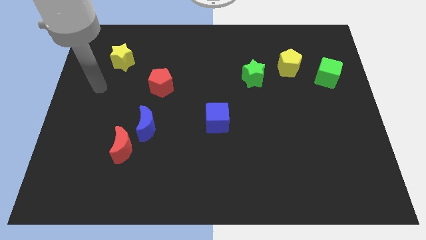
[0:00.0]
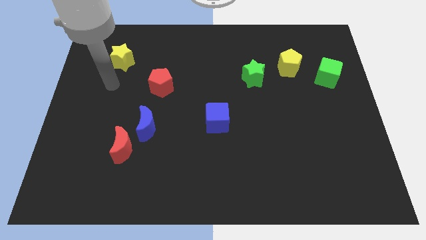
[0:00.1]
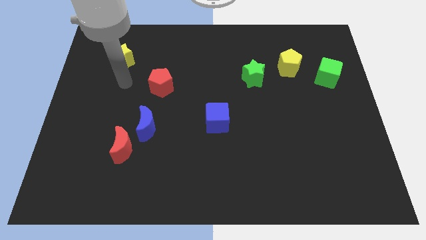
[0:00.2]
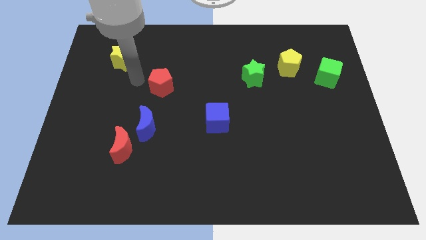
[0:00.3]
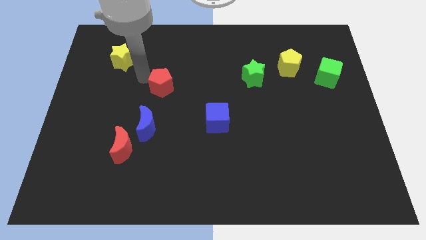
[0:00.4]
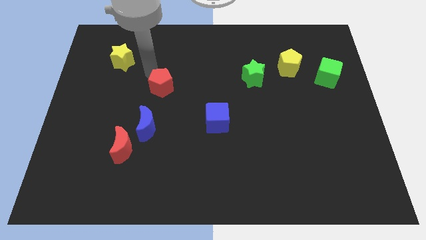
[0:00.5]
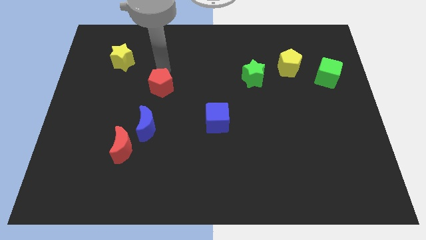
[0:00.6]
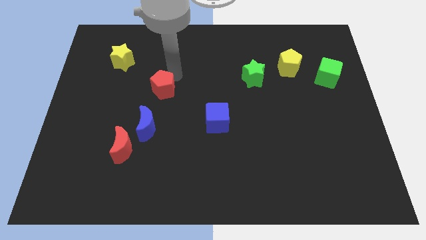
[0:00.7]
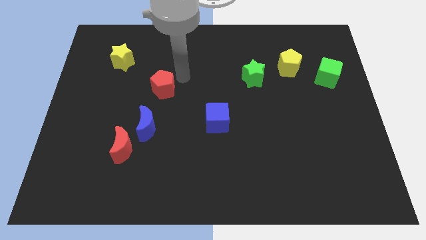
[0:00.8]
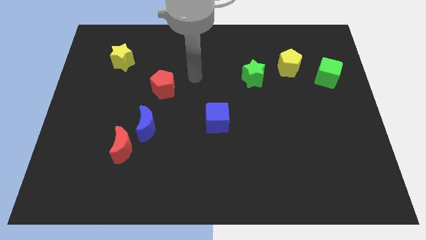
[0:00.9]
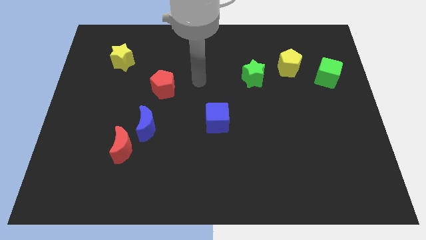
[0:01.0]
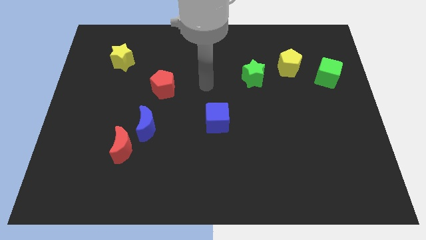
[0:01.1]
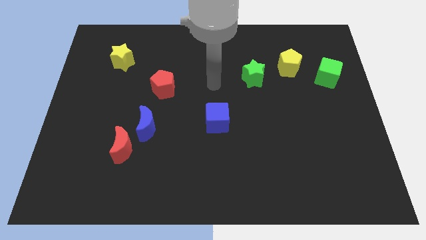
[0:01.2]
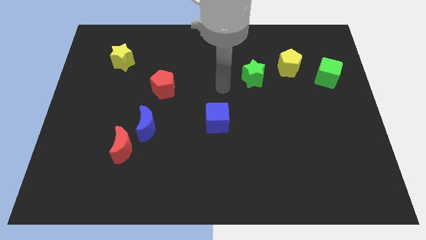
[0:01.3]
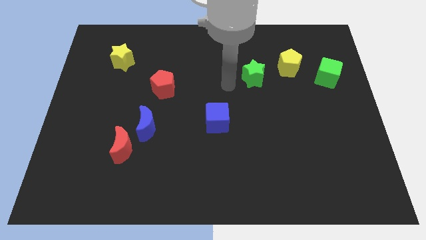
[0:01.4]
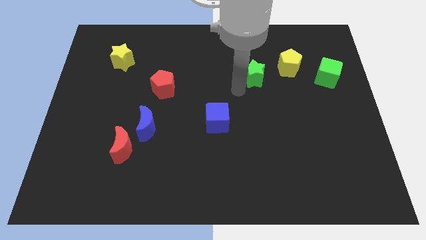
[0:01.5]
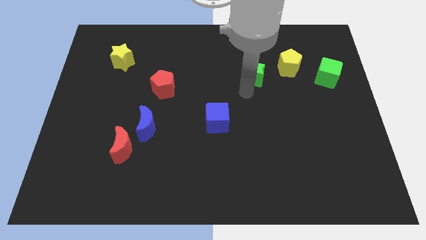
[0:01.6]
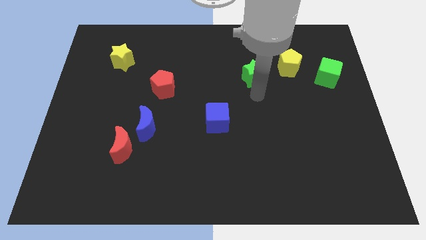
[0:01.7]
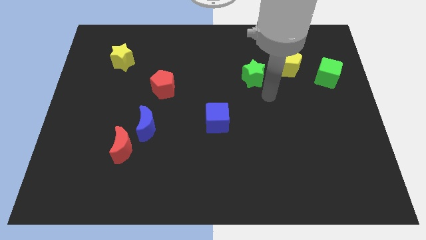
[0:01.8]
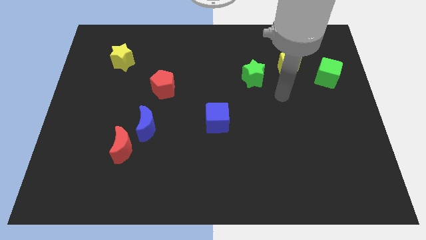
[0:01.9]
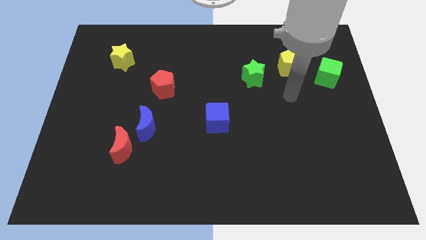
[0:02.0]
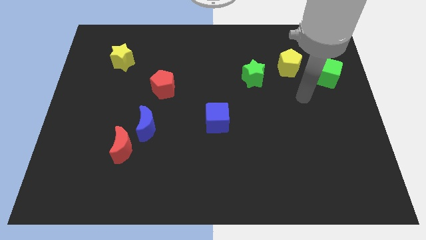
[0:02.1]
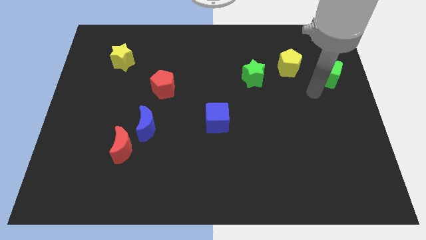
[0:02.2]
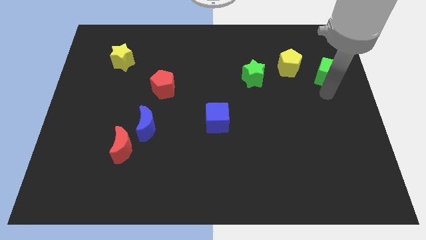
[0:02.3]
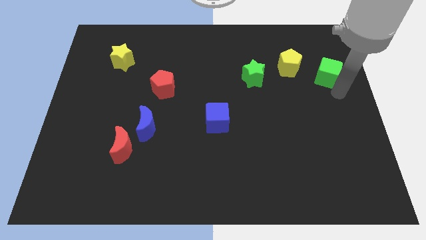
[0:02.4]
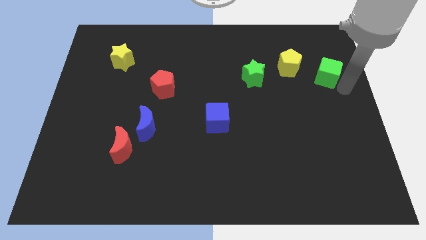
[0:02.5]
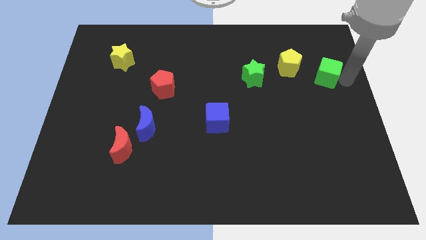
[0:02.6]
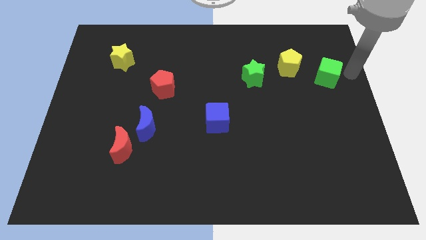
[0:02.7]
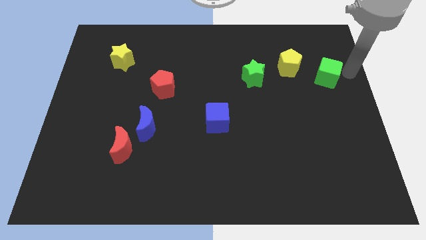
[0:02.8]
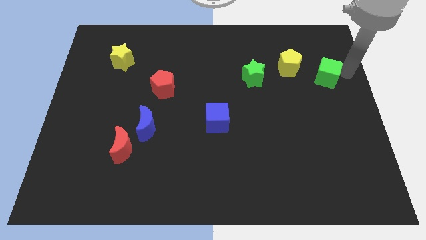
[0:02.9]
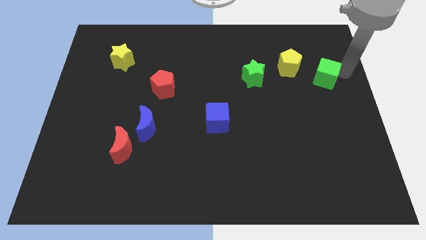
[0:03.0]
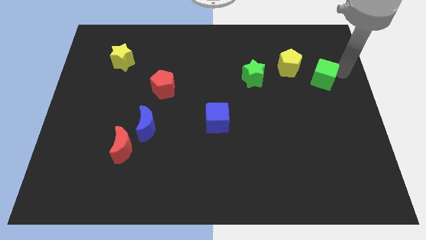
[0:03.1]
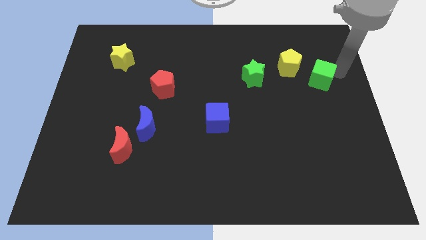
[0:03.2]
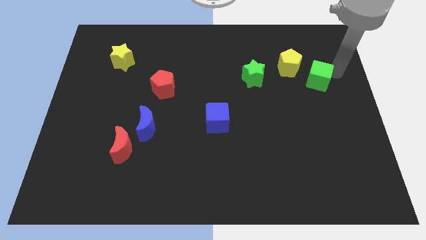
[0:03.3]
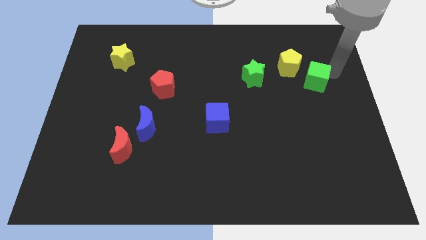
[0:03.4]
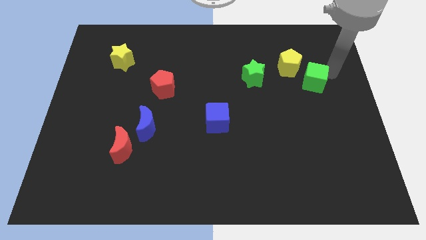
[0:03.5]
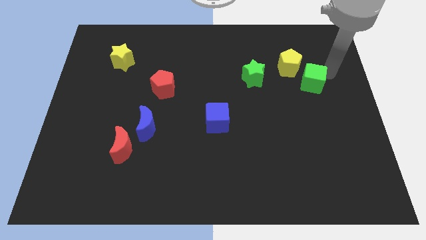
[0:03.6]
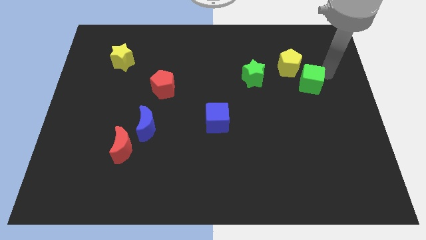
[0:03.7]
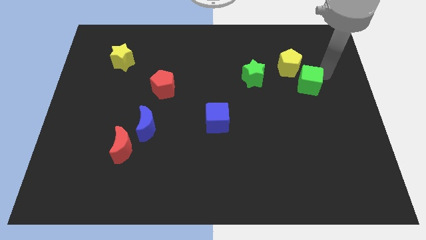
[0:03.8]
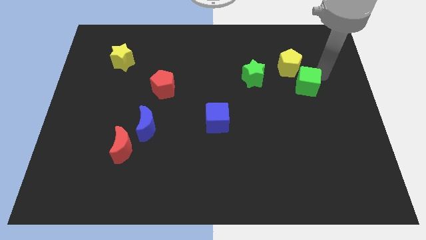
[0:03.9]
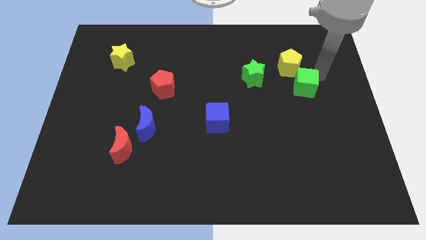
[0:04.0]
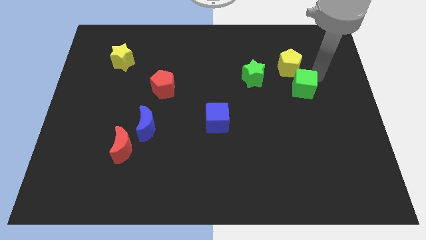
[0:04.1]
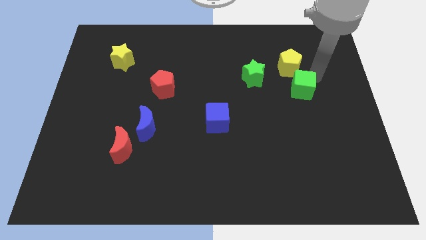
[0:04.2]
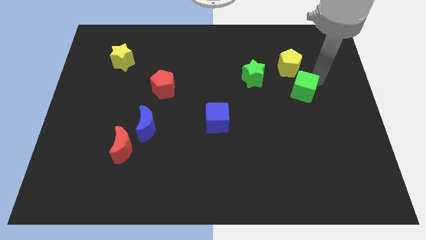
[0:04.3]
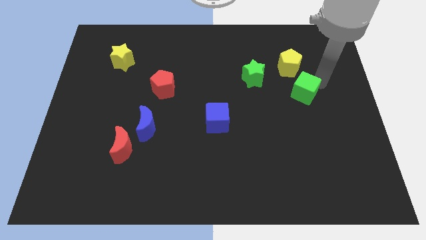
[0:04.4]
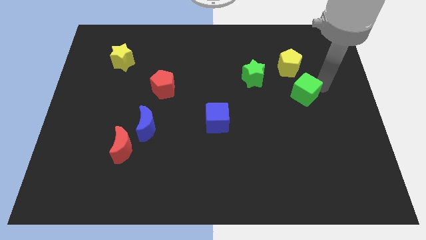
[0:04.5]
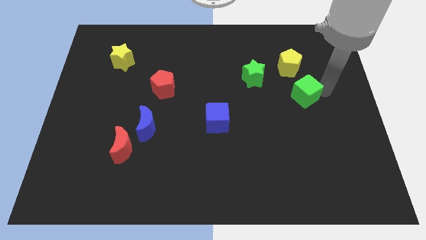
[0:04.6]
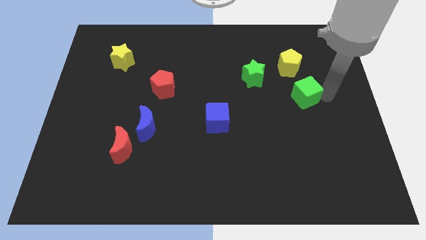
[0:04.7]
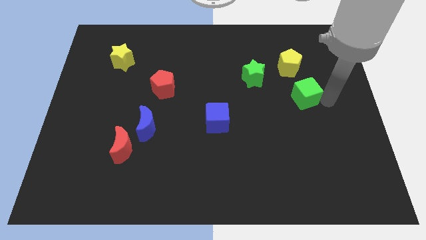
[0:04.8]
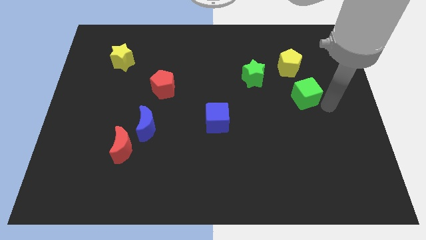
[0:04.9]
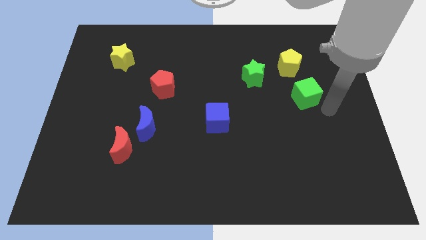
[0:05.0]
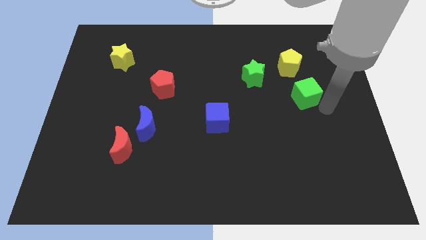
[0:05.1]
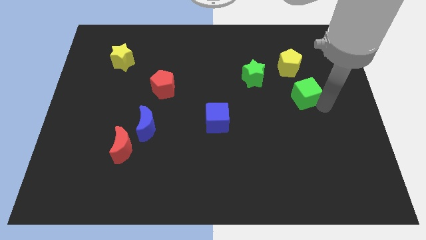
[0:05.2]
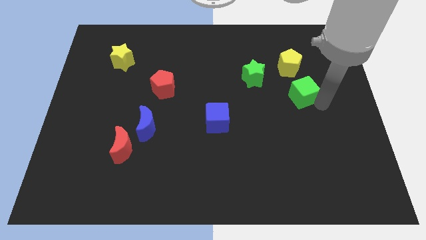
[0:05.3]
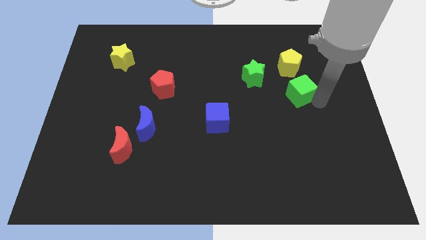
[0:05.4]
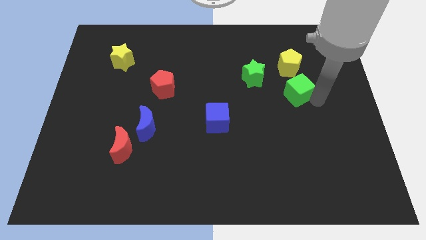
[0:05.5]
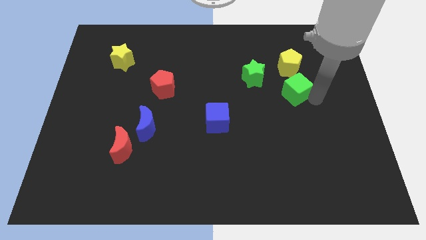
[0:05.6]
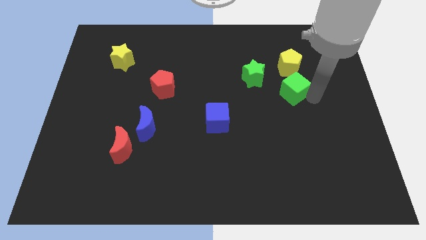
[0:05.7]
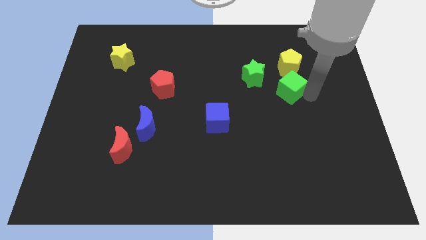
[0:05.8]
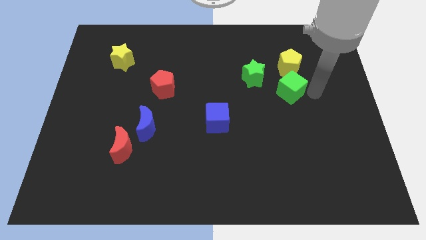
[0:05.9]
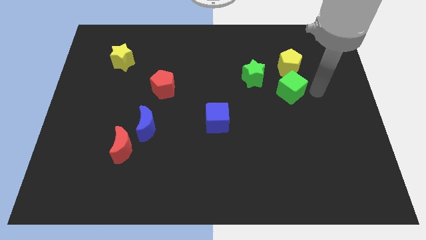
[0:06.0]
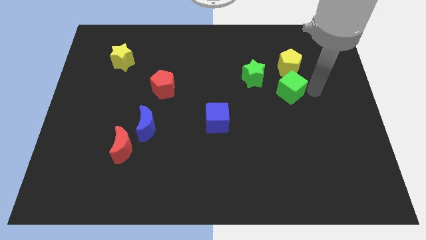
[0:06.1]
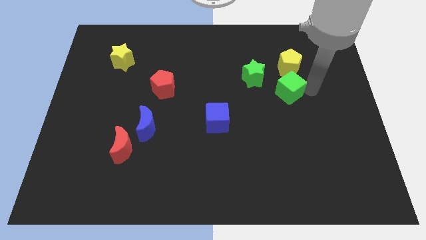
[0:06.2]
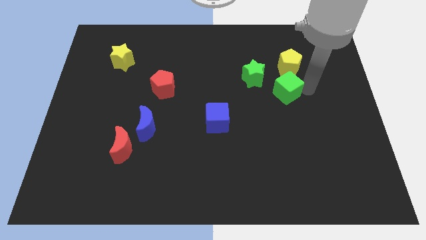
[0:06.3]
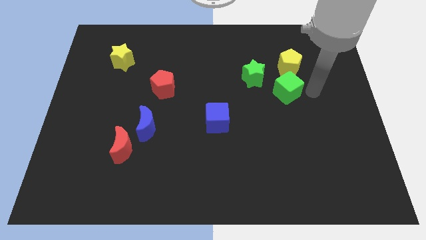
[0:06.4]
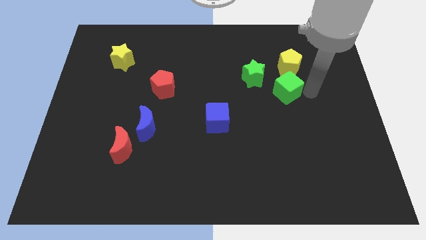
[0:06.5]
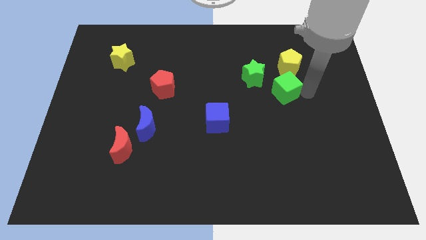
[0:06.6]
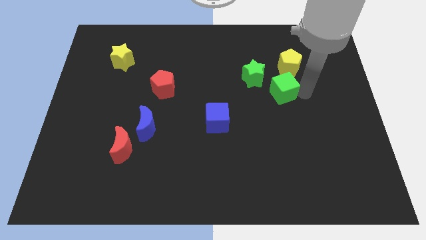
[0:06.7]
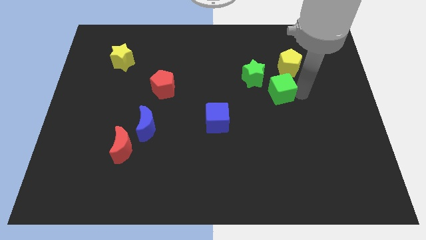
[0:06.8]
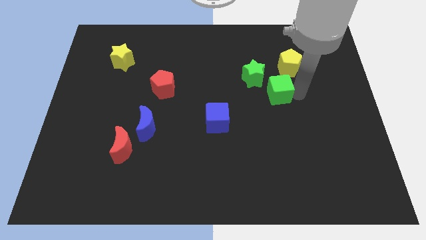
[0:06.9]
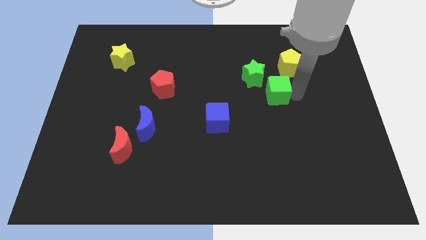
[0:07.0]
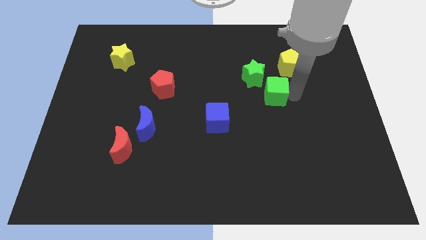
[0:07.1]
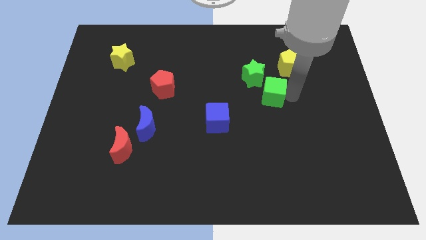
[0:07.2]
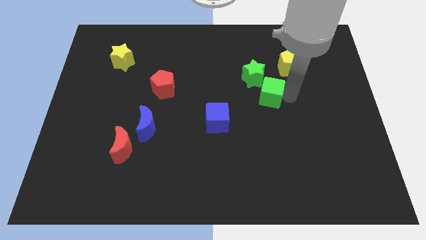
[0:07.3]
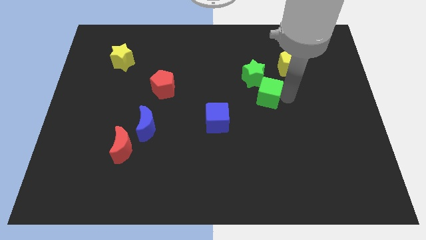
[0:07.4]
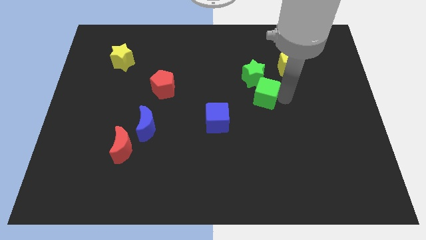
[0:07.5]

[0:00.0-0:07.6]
slide the green cube to the center
